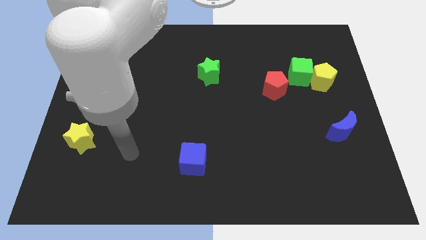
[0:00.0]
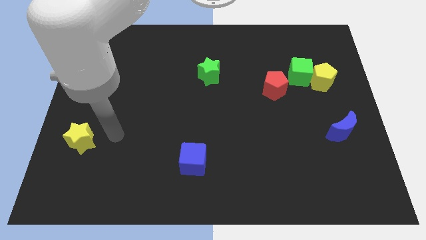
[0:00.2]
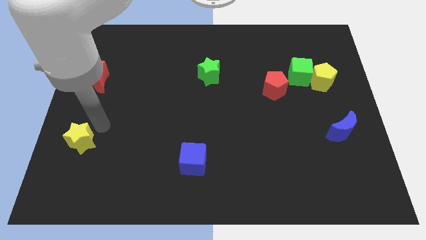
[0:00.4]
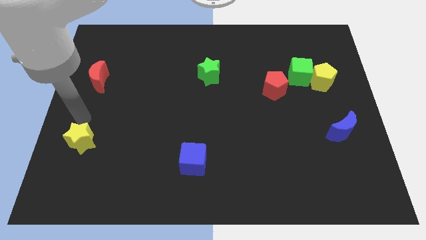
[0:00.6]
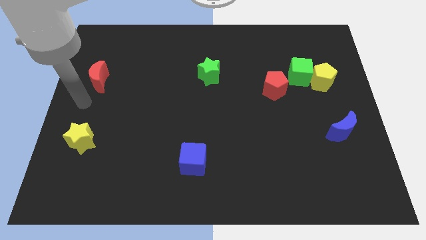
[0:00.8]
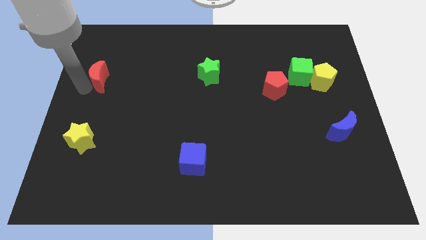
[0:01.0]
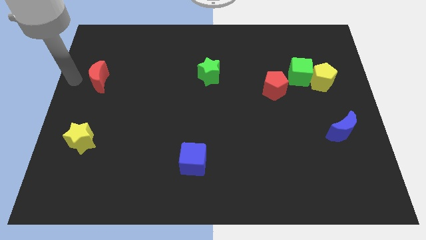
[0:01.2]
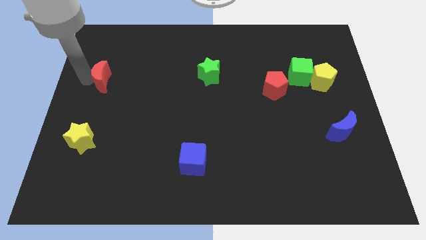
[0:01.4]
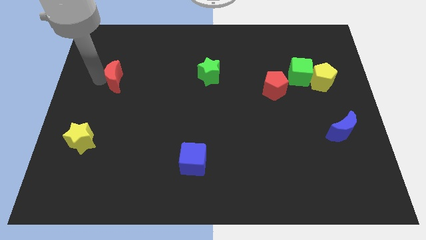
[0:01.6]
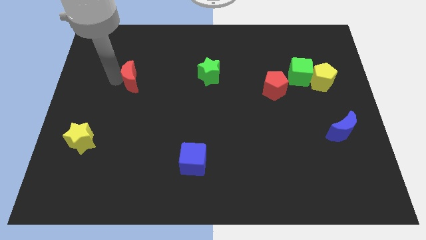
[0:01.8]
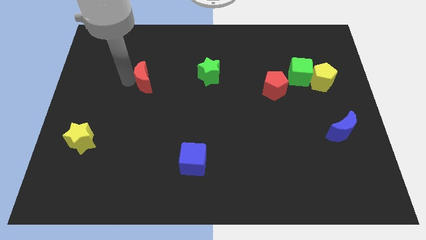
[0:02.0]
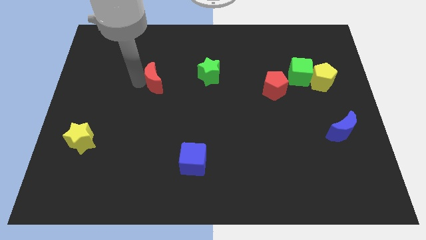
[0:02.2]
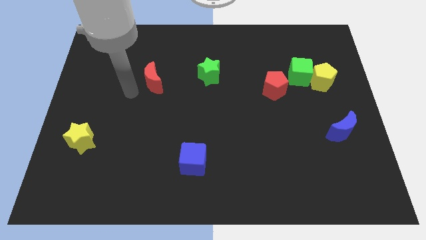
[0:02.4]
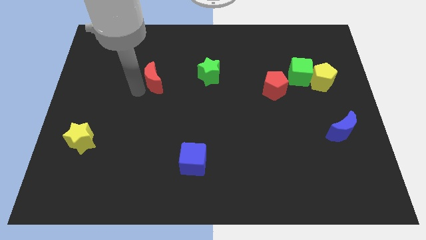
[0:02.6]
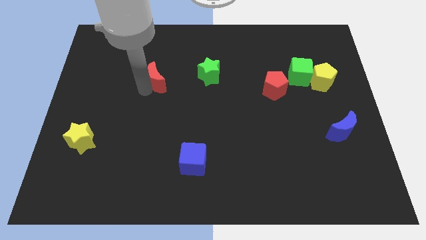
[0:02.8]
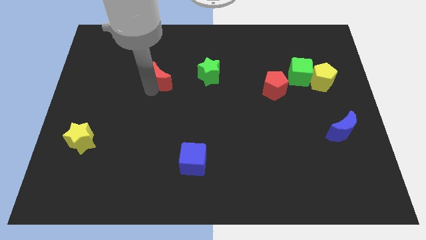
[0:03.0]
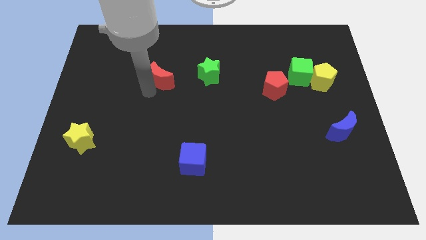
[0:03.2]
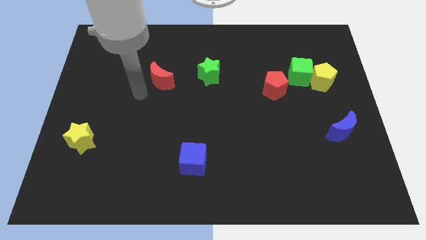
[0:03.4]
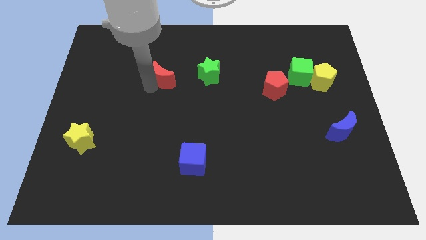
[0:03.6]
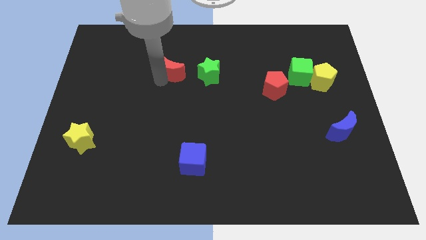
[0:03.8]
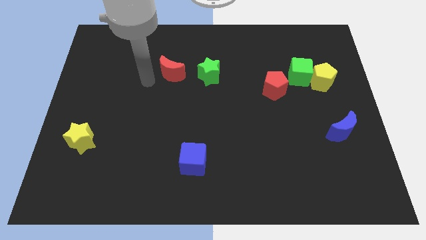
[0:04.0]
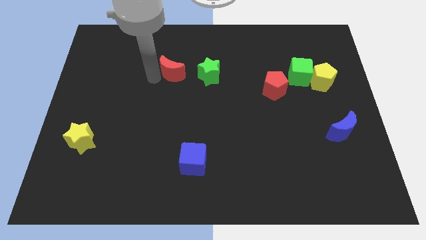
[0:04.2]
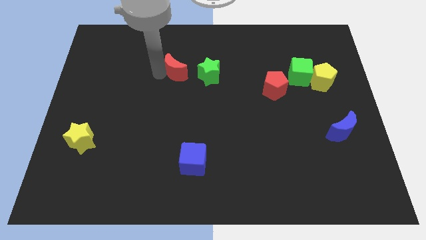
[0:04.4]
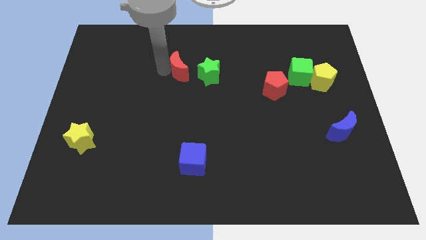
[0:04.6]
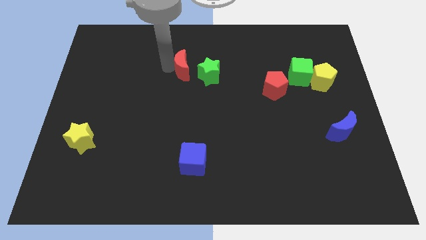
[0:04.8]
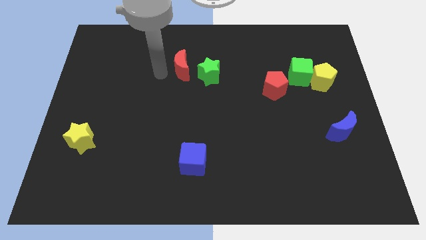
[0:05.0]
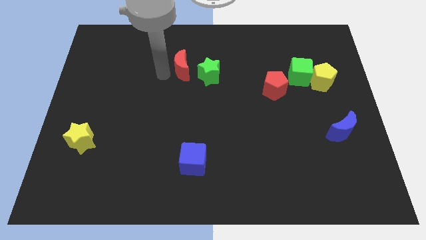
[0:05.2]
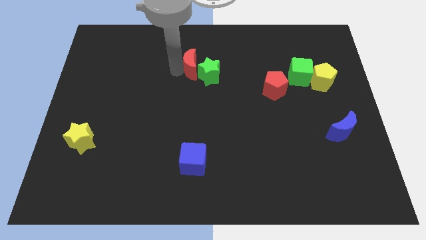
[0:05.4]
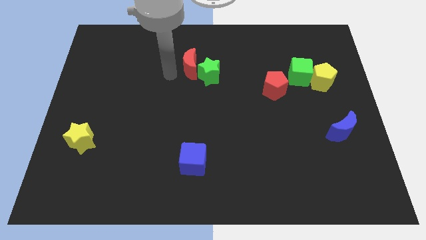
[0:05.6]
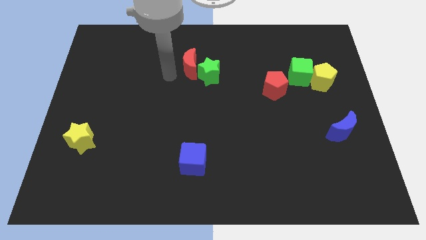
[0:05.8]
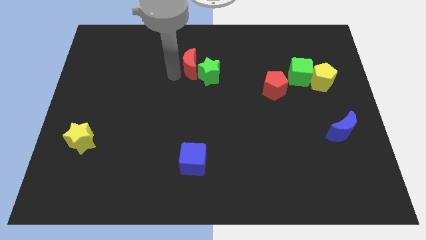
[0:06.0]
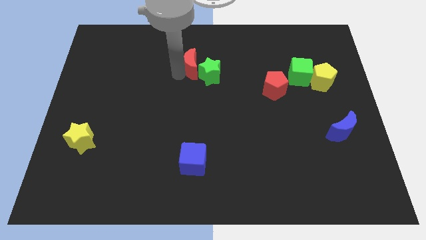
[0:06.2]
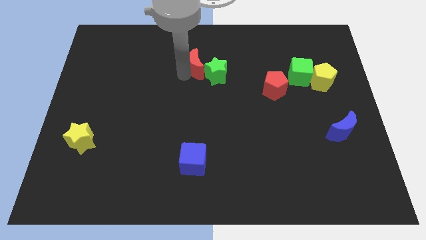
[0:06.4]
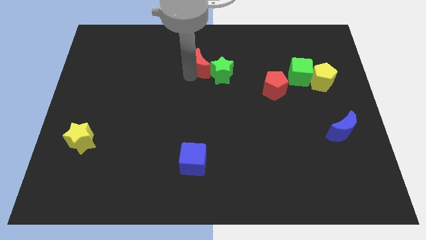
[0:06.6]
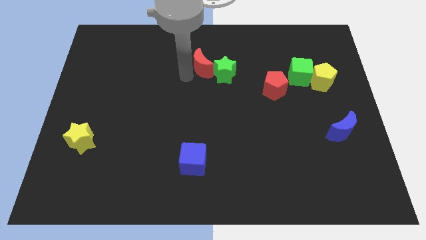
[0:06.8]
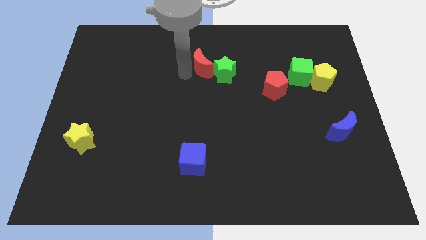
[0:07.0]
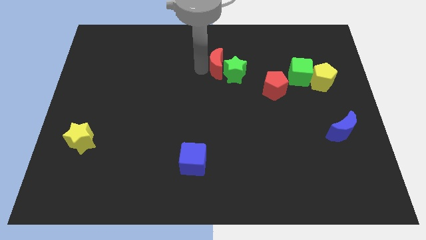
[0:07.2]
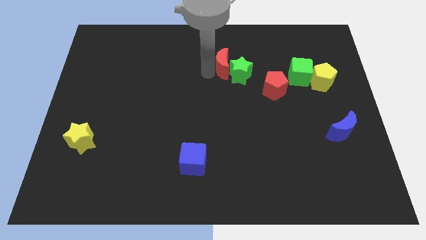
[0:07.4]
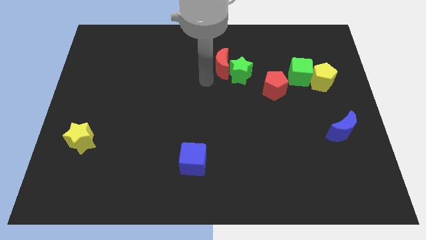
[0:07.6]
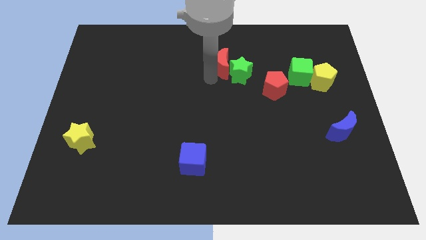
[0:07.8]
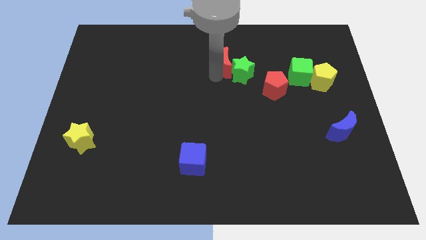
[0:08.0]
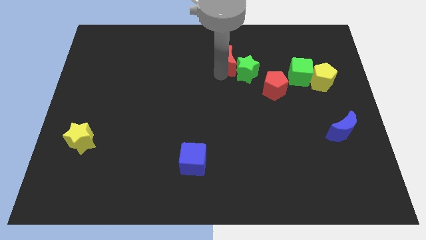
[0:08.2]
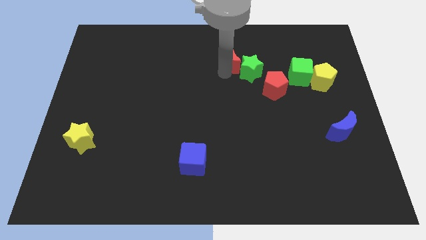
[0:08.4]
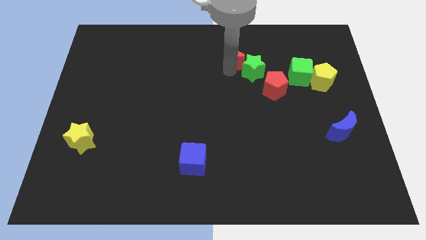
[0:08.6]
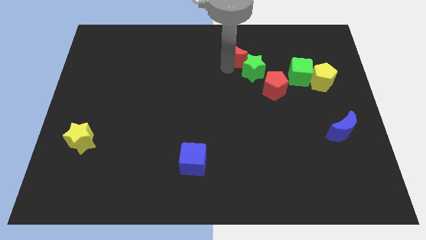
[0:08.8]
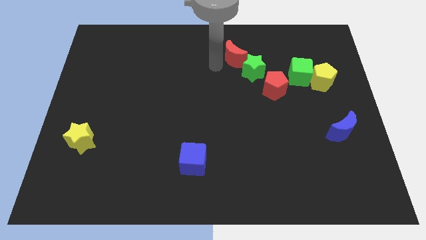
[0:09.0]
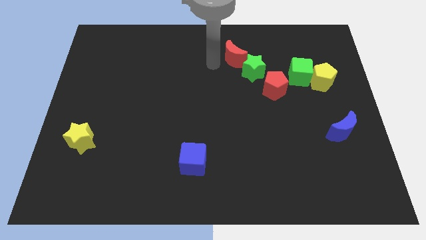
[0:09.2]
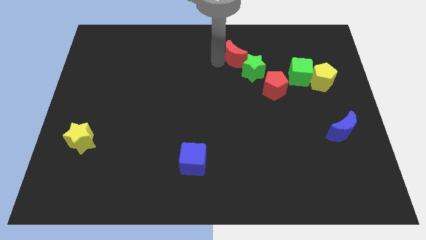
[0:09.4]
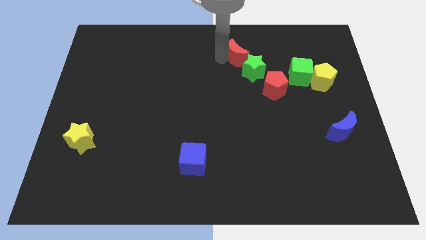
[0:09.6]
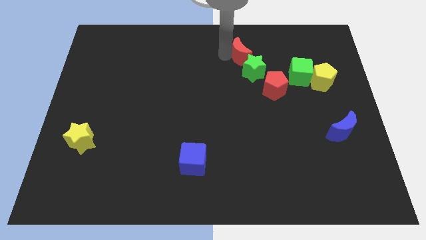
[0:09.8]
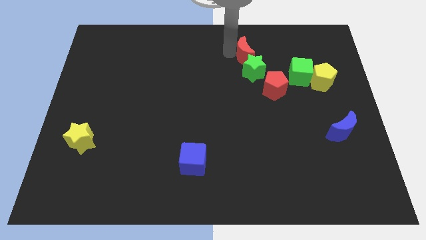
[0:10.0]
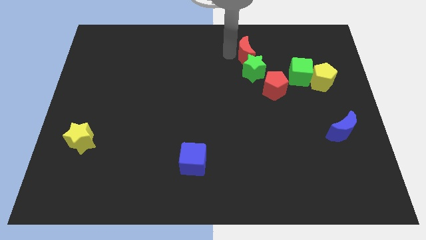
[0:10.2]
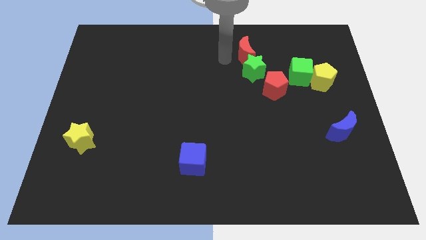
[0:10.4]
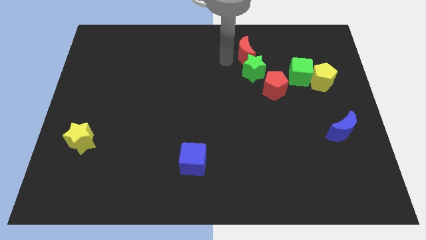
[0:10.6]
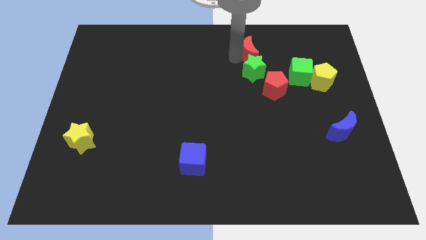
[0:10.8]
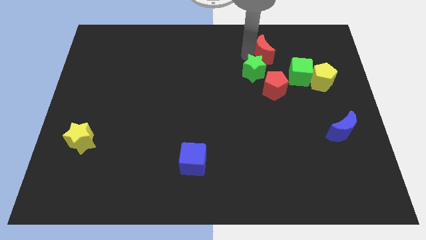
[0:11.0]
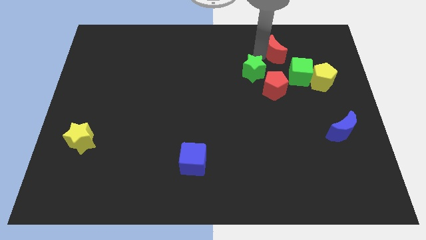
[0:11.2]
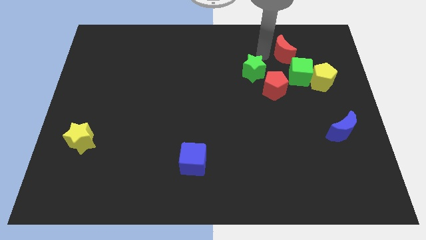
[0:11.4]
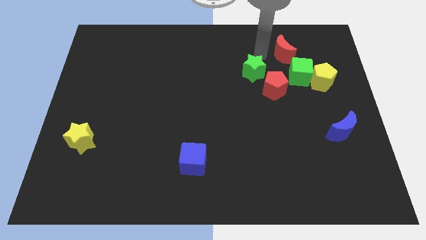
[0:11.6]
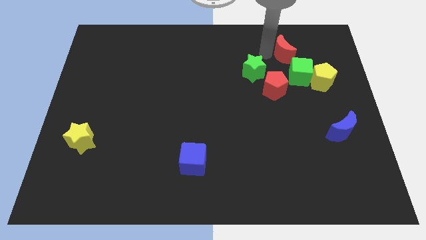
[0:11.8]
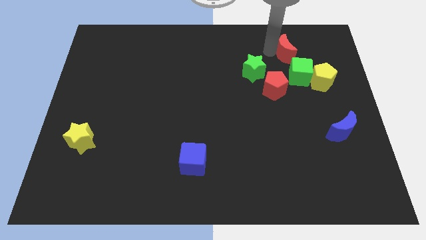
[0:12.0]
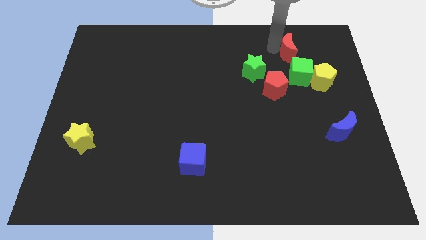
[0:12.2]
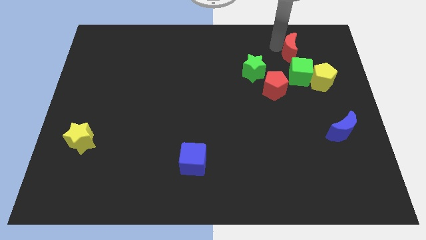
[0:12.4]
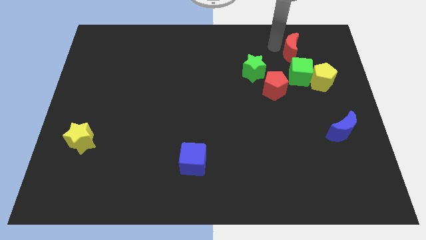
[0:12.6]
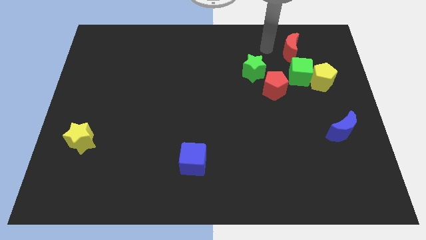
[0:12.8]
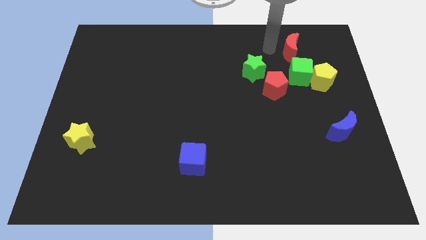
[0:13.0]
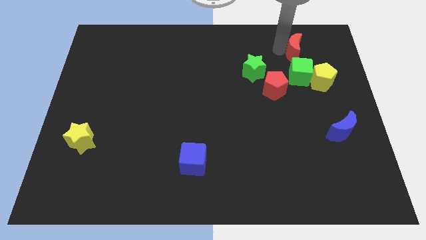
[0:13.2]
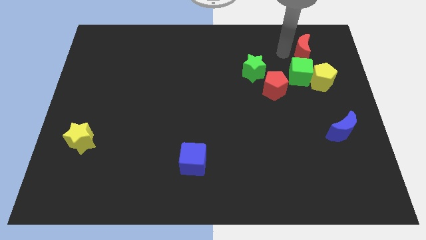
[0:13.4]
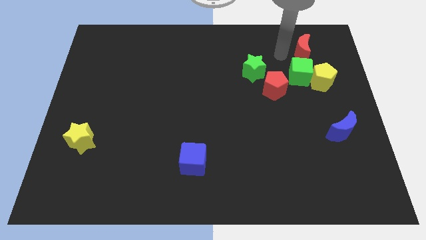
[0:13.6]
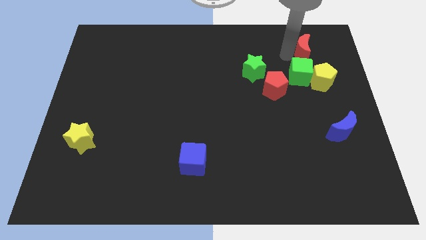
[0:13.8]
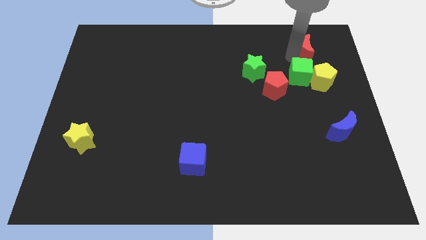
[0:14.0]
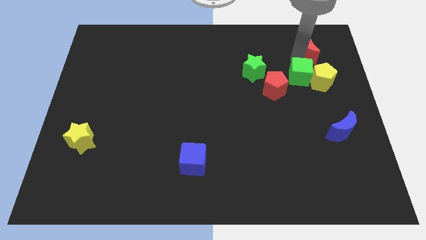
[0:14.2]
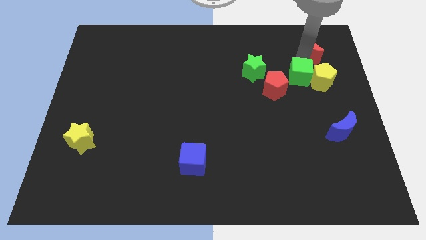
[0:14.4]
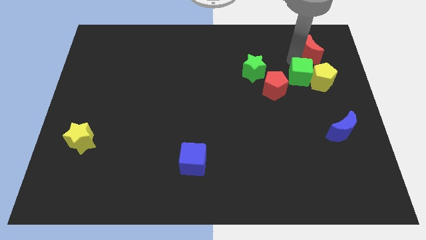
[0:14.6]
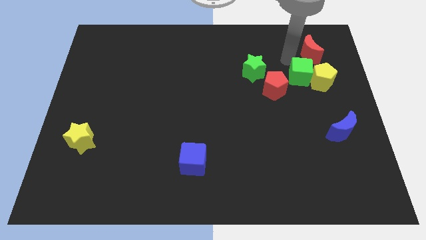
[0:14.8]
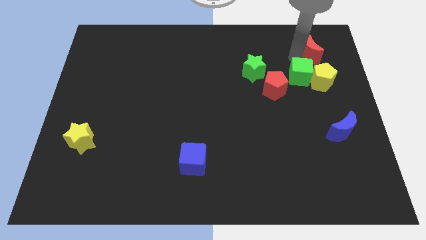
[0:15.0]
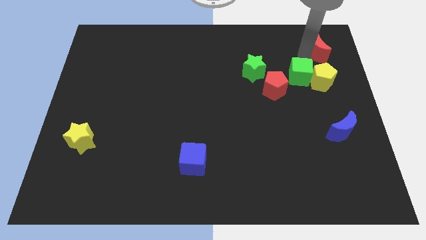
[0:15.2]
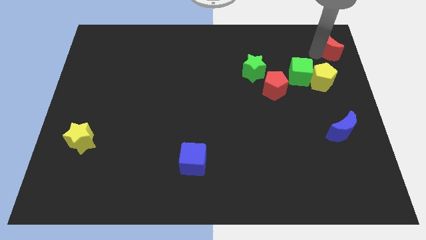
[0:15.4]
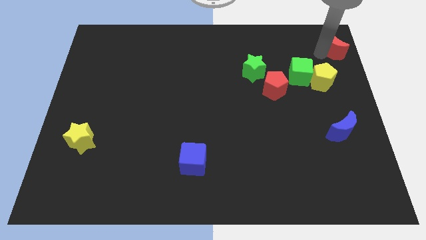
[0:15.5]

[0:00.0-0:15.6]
push the red moon to the top right of the board
